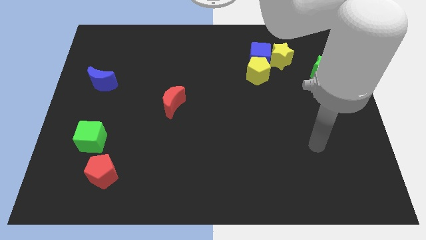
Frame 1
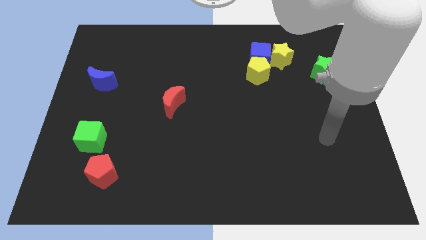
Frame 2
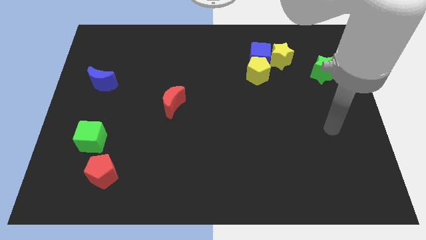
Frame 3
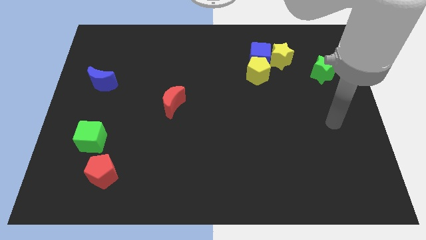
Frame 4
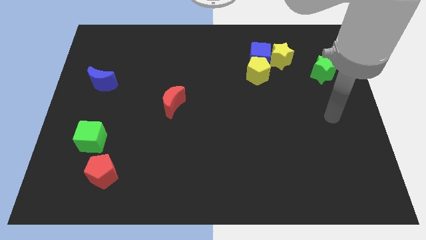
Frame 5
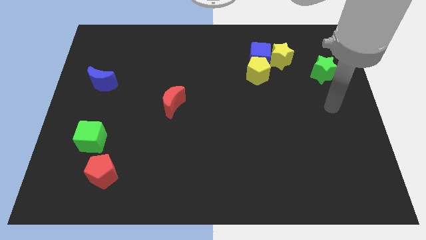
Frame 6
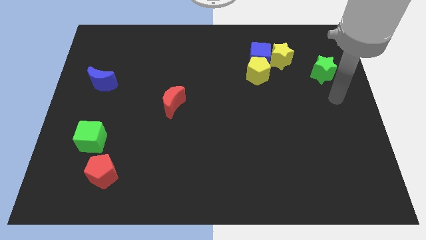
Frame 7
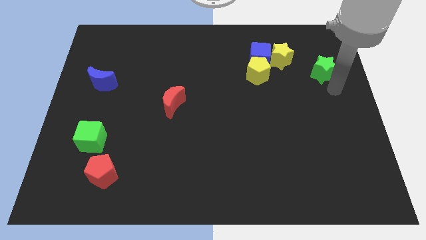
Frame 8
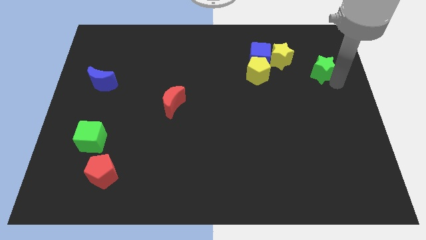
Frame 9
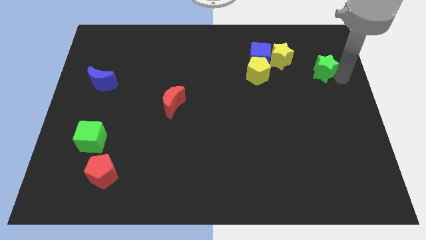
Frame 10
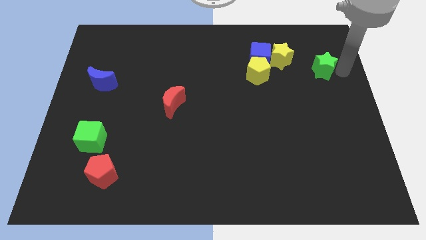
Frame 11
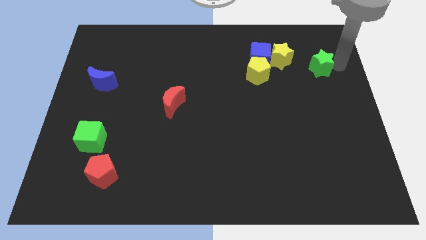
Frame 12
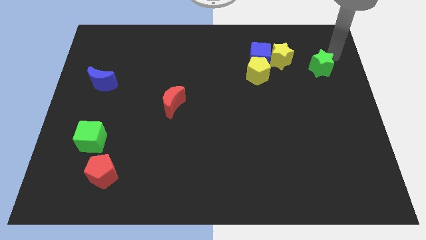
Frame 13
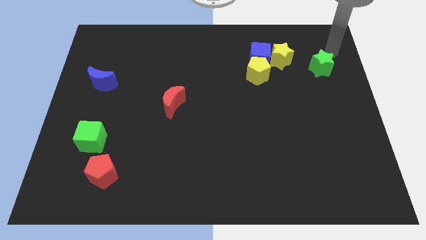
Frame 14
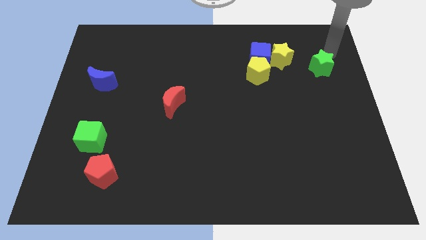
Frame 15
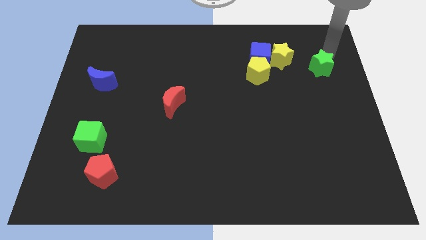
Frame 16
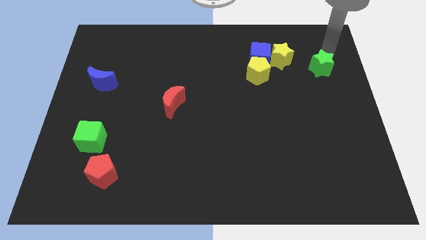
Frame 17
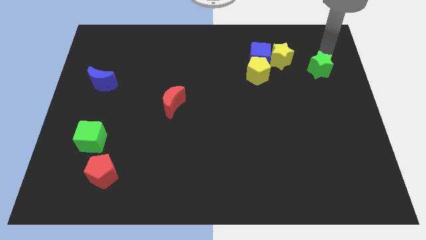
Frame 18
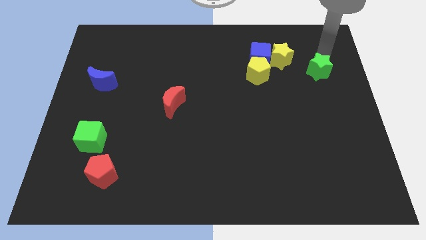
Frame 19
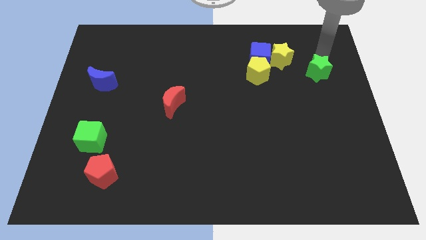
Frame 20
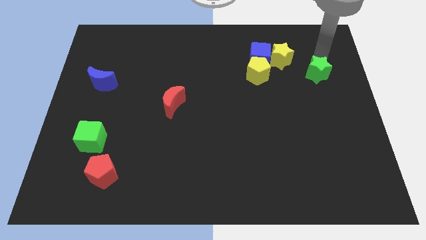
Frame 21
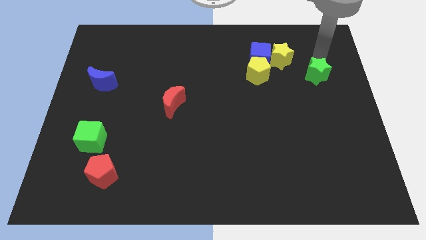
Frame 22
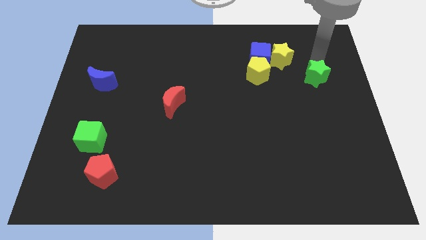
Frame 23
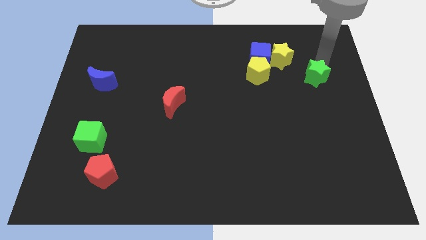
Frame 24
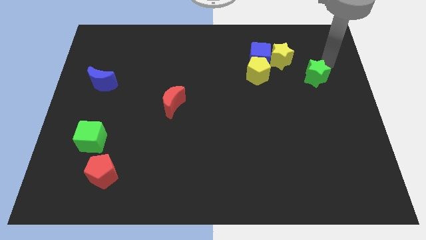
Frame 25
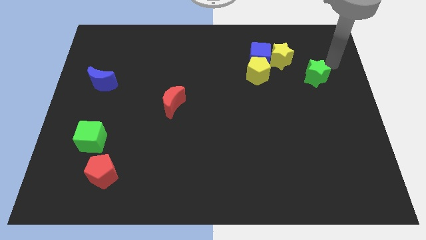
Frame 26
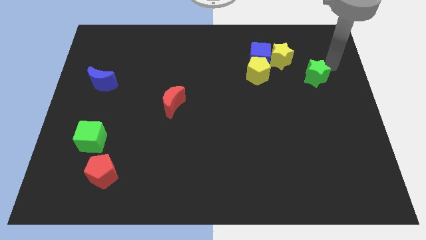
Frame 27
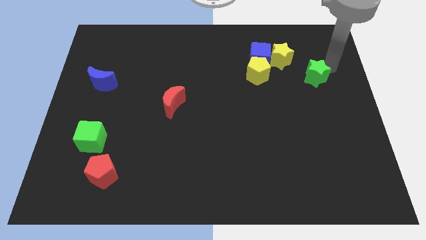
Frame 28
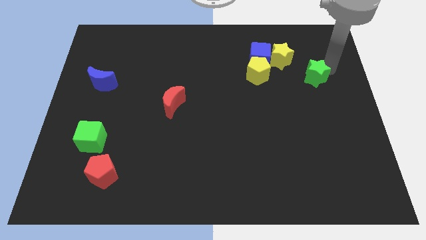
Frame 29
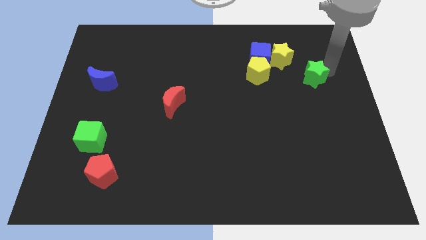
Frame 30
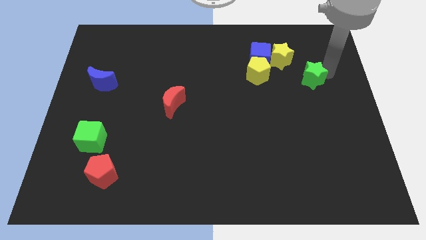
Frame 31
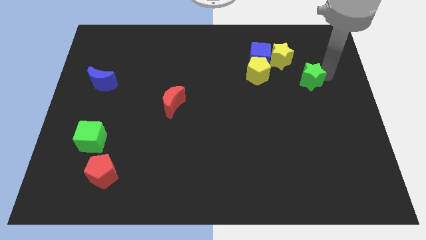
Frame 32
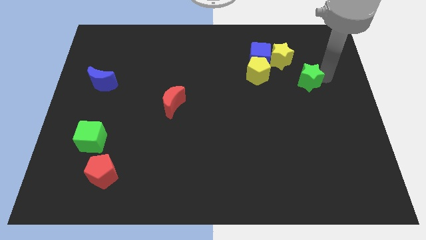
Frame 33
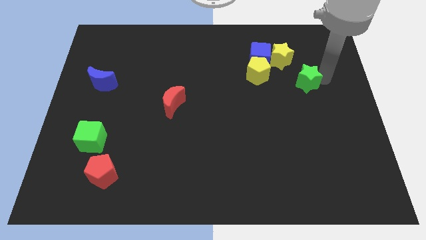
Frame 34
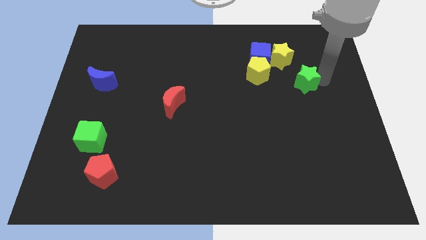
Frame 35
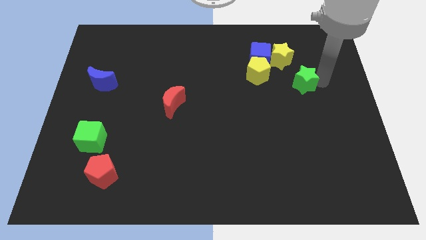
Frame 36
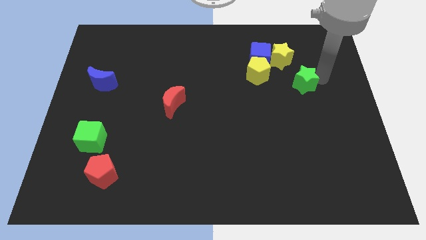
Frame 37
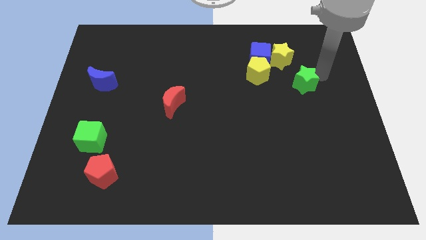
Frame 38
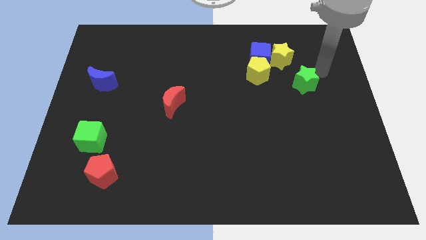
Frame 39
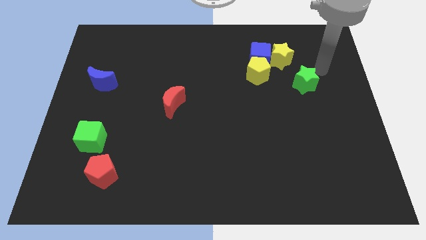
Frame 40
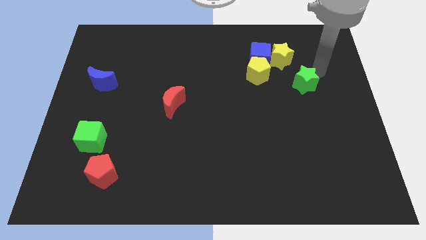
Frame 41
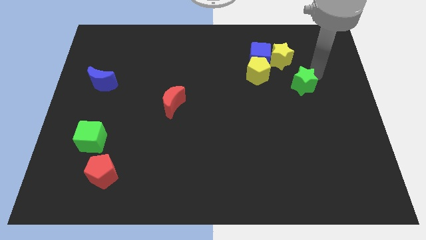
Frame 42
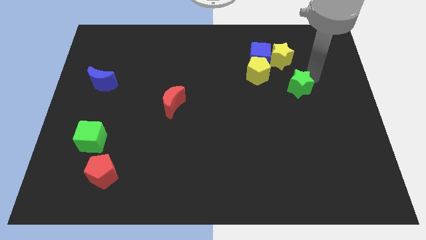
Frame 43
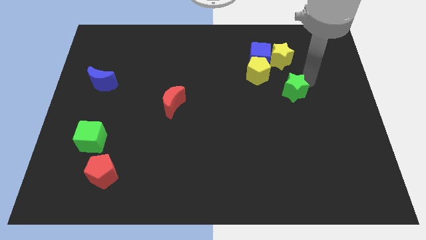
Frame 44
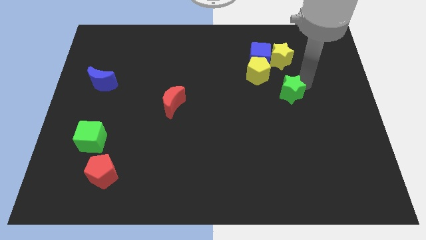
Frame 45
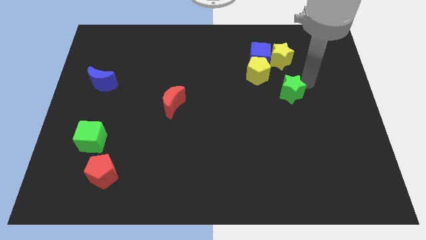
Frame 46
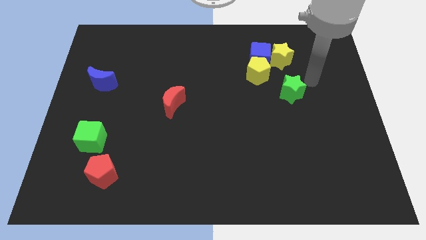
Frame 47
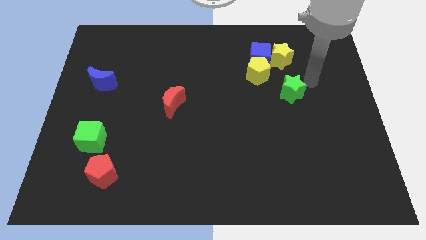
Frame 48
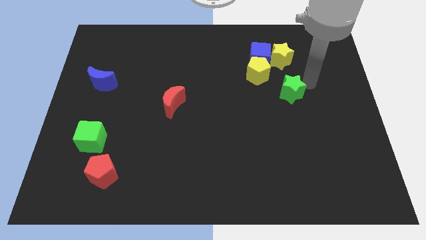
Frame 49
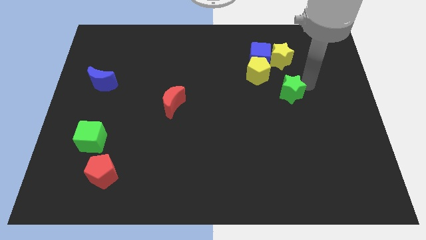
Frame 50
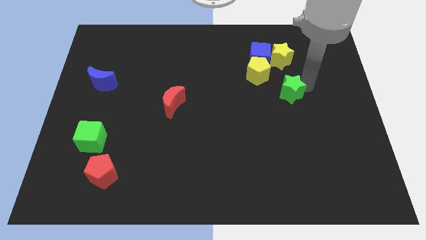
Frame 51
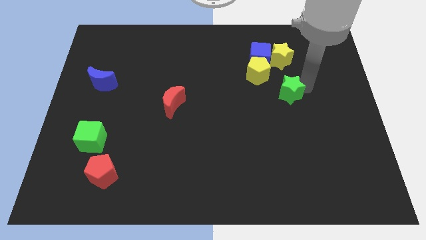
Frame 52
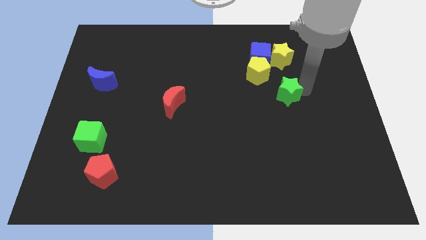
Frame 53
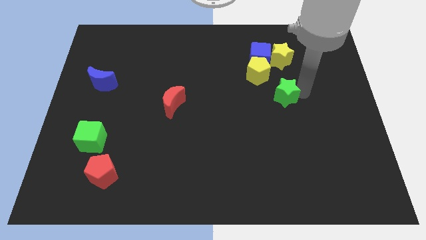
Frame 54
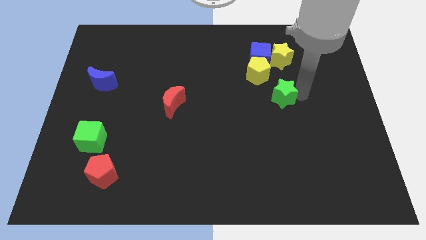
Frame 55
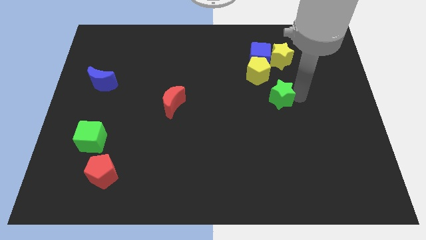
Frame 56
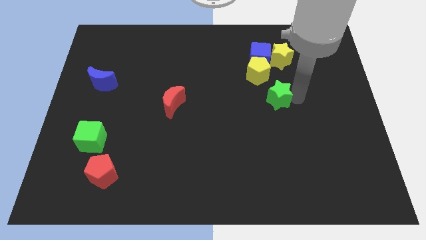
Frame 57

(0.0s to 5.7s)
put the green star to the bottom side of the yellow pentagon

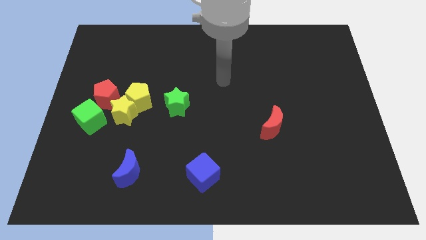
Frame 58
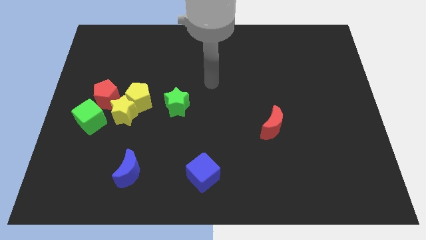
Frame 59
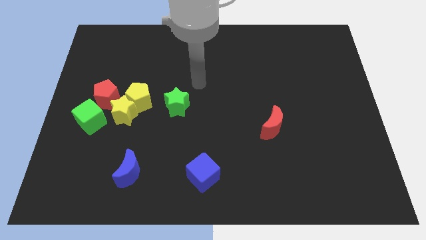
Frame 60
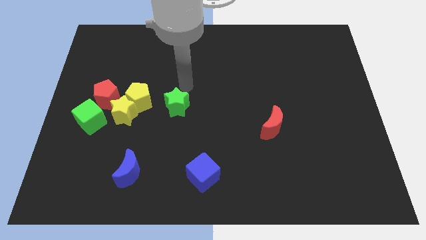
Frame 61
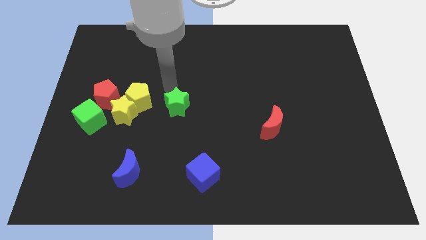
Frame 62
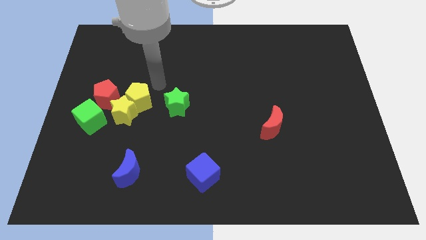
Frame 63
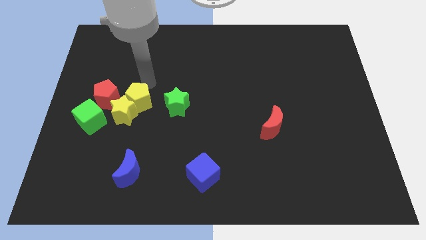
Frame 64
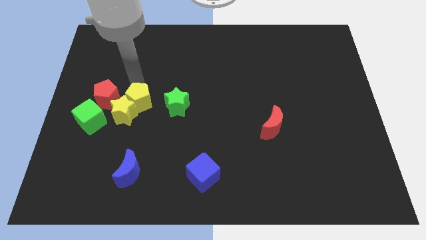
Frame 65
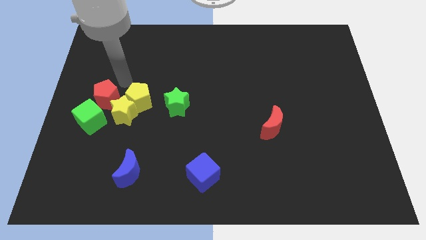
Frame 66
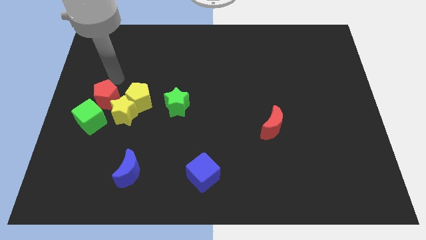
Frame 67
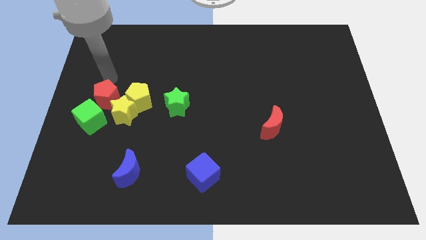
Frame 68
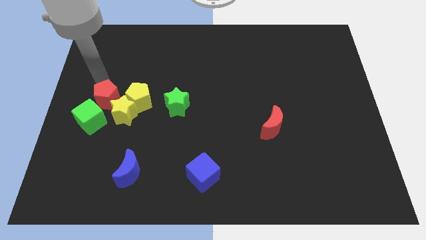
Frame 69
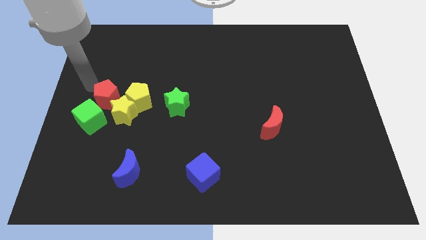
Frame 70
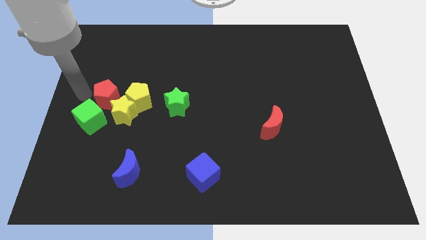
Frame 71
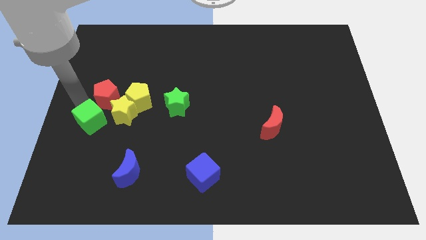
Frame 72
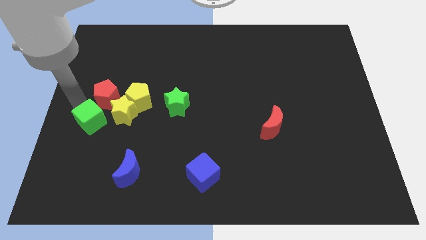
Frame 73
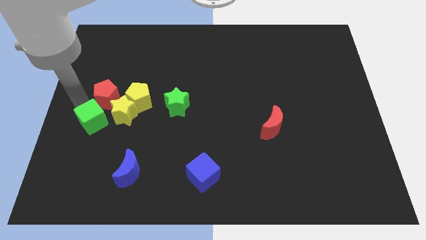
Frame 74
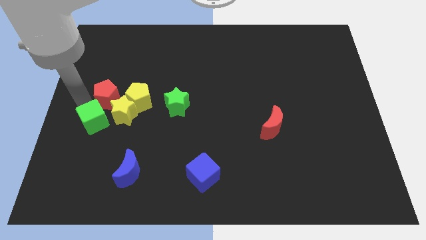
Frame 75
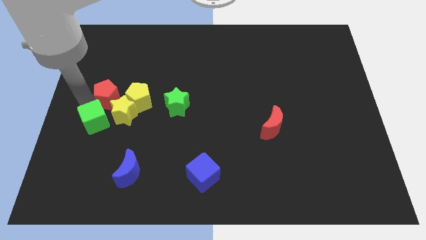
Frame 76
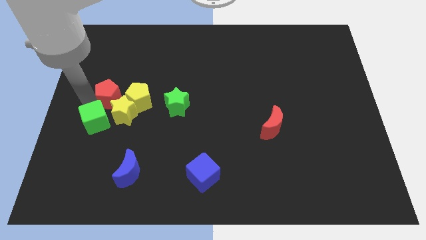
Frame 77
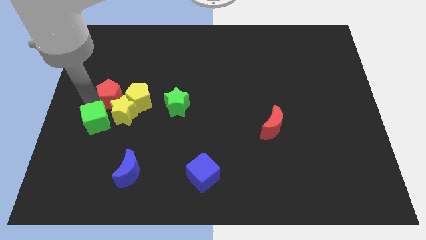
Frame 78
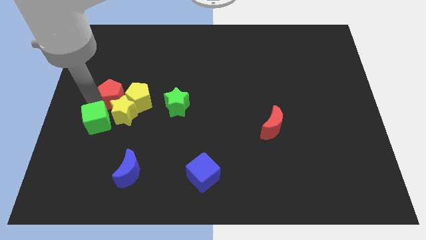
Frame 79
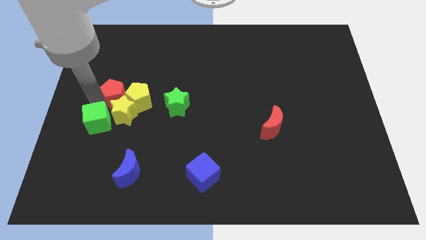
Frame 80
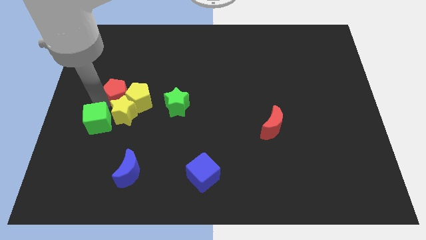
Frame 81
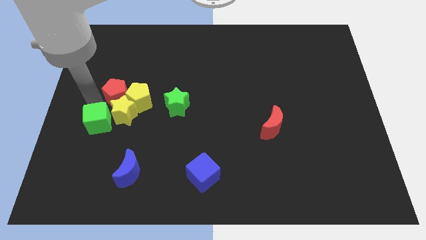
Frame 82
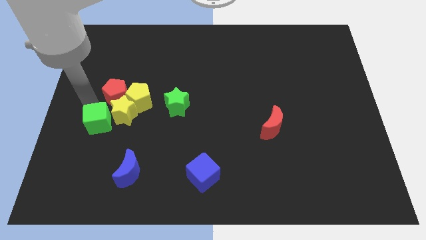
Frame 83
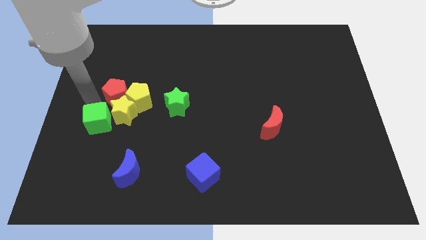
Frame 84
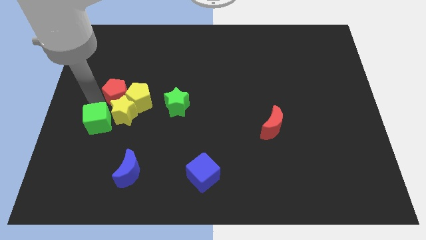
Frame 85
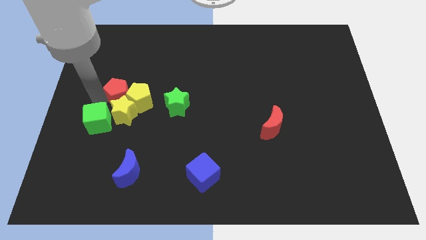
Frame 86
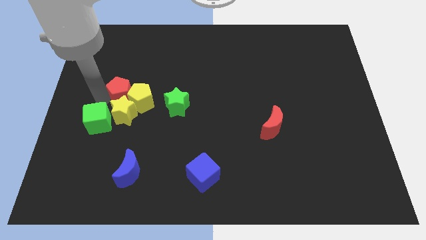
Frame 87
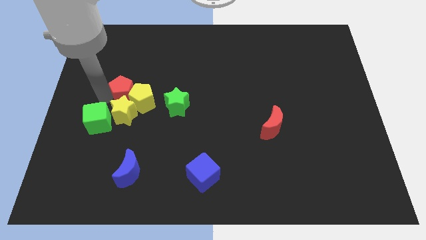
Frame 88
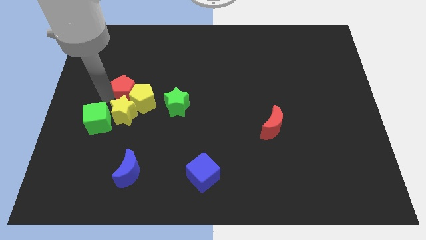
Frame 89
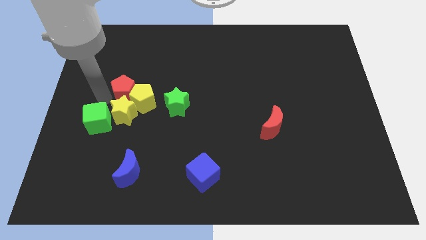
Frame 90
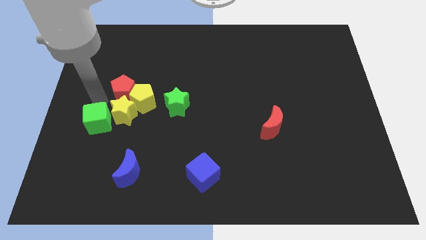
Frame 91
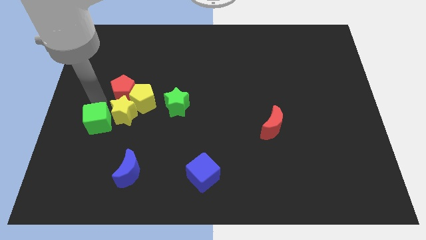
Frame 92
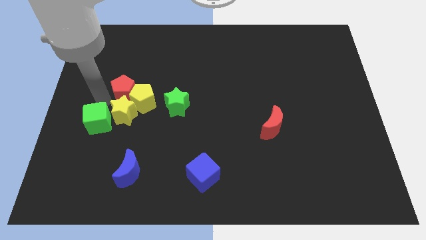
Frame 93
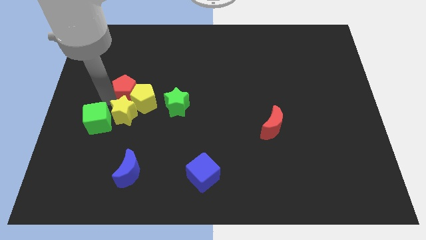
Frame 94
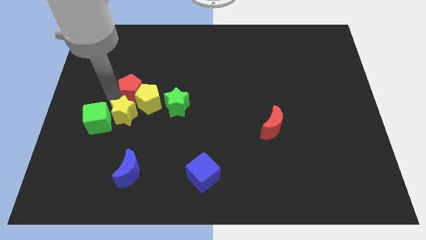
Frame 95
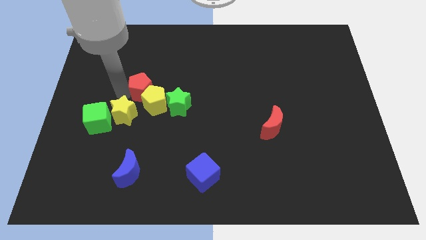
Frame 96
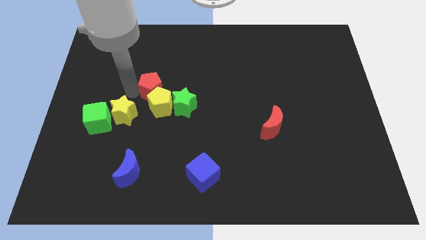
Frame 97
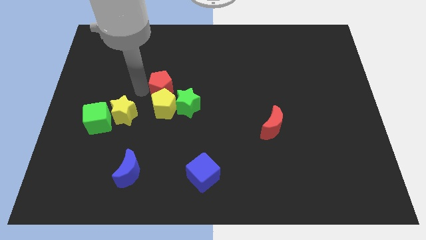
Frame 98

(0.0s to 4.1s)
push the red pentagon to the top right side of the yellow pentagon
